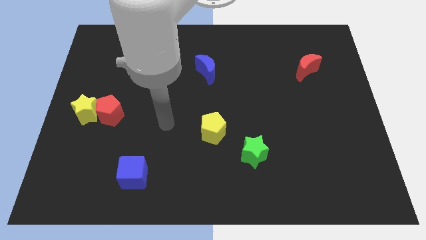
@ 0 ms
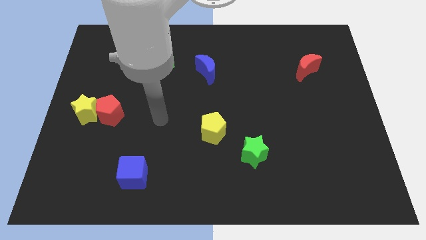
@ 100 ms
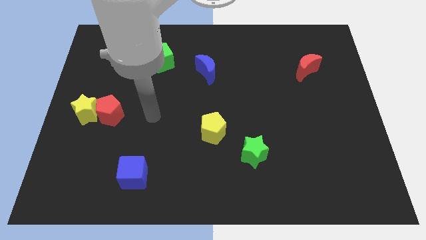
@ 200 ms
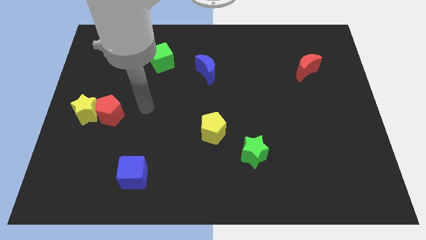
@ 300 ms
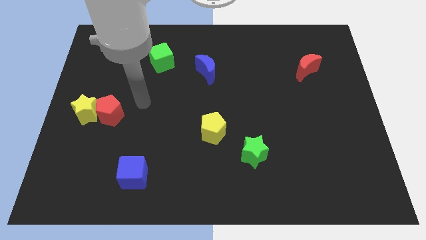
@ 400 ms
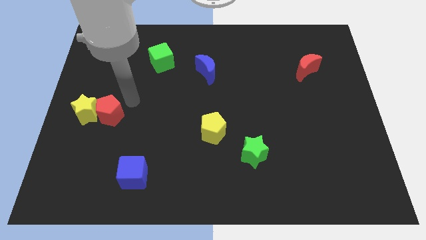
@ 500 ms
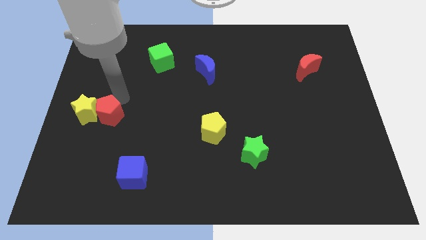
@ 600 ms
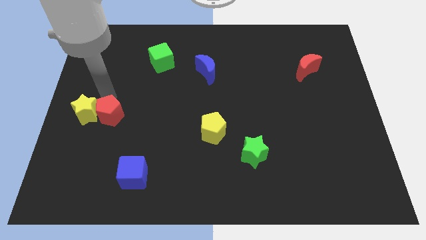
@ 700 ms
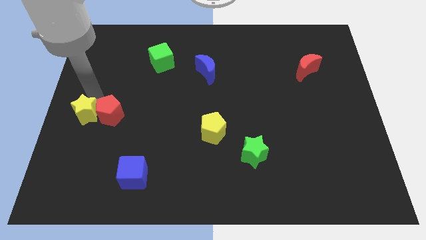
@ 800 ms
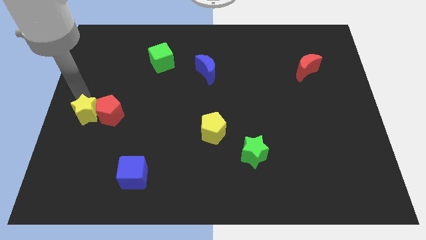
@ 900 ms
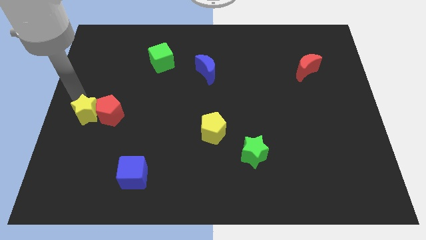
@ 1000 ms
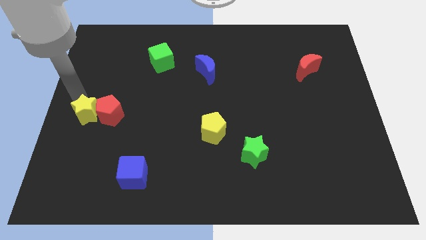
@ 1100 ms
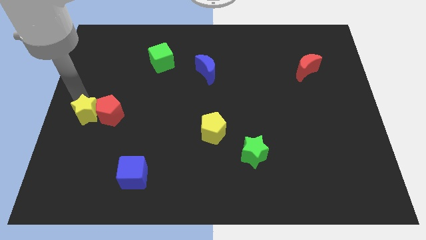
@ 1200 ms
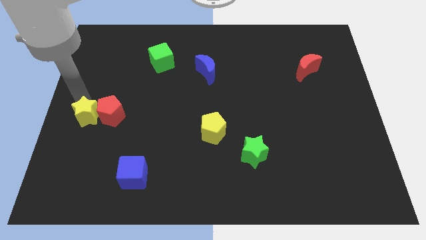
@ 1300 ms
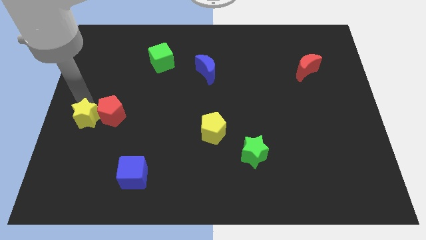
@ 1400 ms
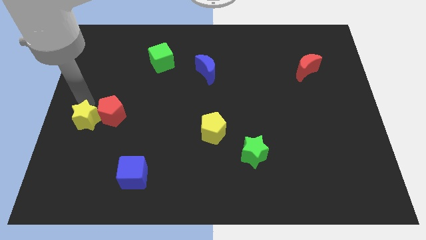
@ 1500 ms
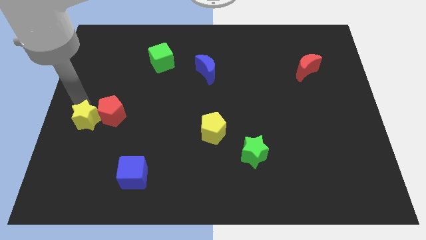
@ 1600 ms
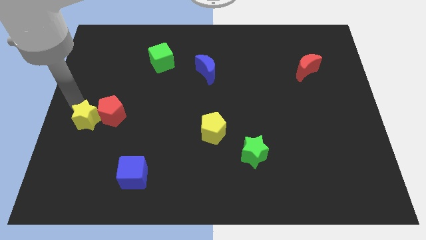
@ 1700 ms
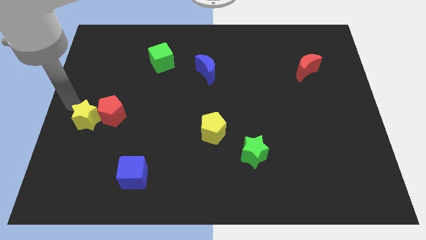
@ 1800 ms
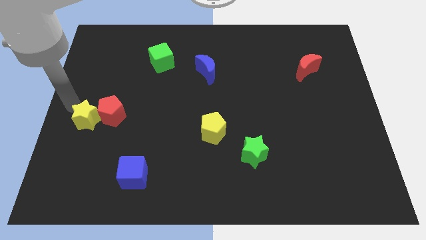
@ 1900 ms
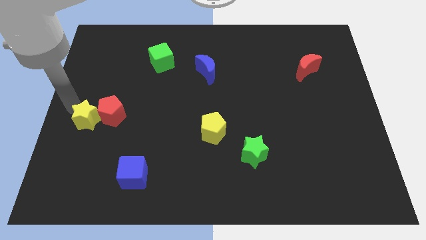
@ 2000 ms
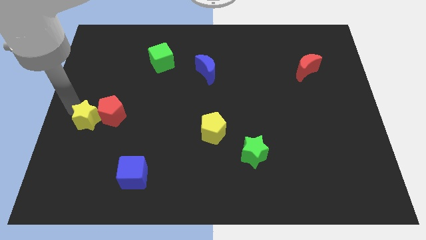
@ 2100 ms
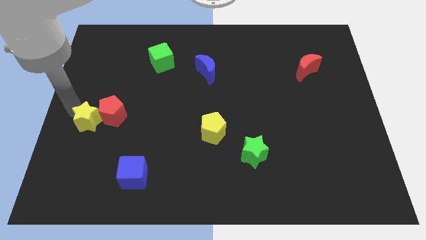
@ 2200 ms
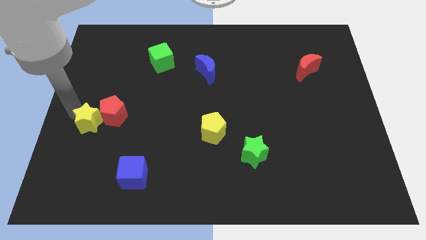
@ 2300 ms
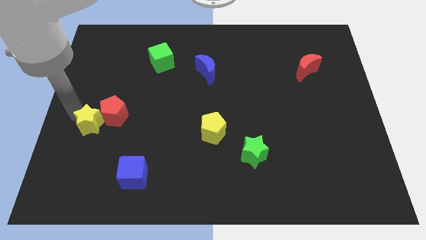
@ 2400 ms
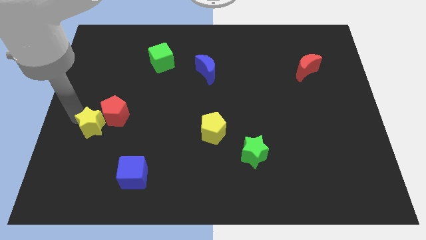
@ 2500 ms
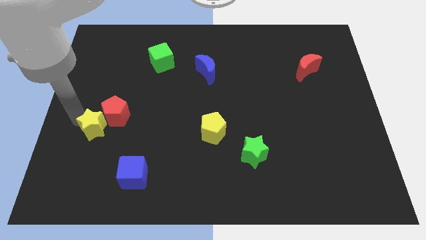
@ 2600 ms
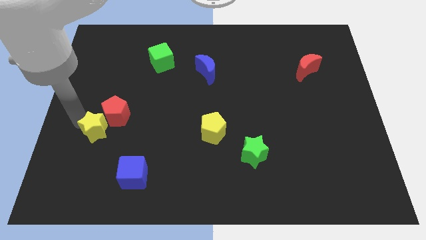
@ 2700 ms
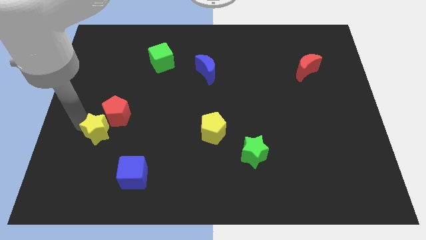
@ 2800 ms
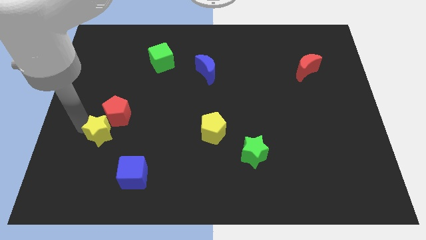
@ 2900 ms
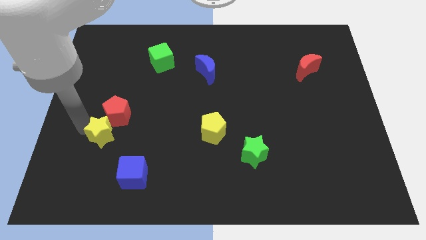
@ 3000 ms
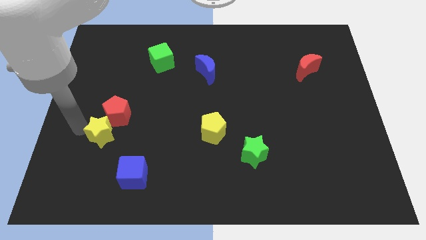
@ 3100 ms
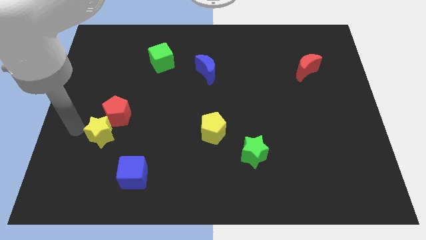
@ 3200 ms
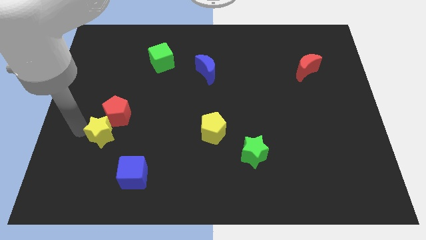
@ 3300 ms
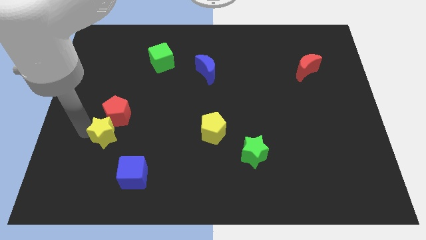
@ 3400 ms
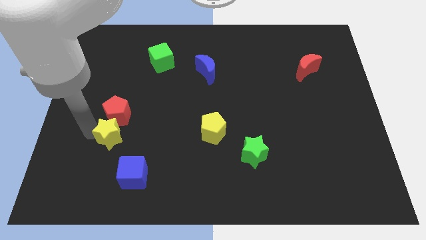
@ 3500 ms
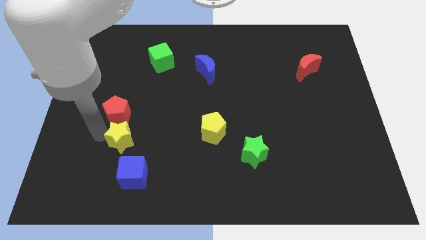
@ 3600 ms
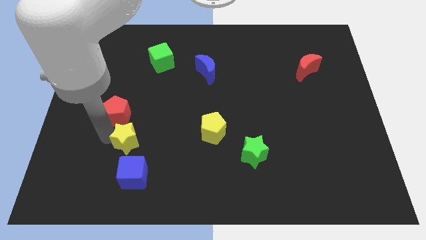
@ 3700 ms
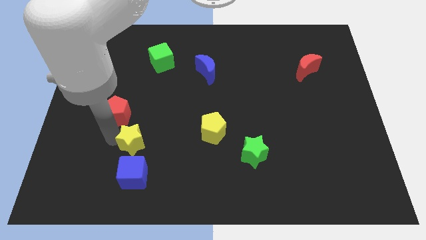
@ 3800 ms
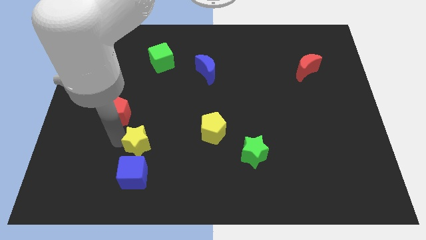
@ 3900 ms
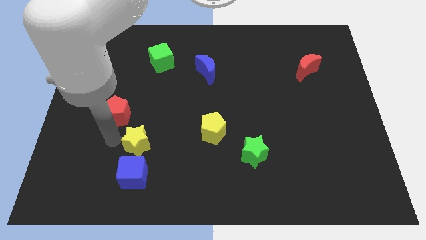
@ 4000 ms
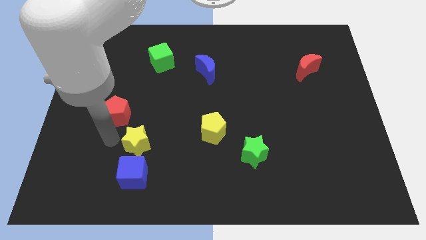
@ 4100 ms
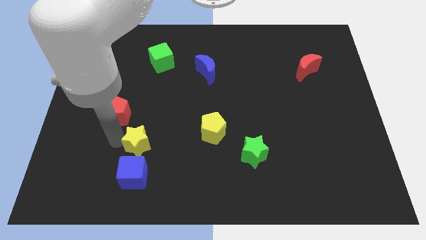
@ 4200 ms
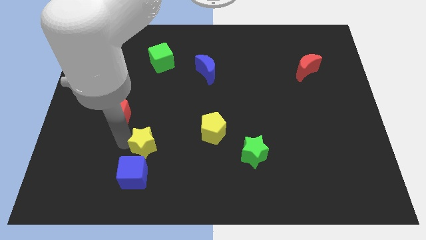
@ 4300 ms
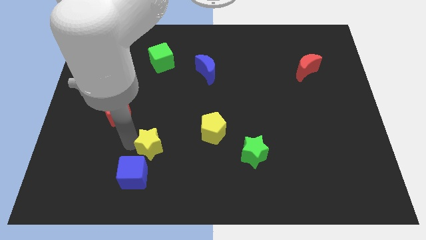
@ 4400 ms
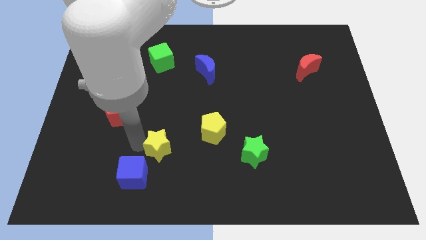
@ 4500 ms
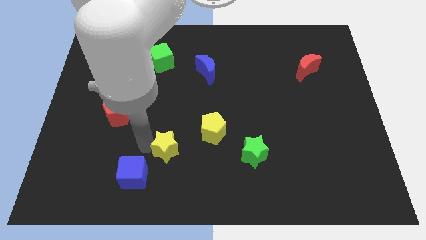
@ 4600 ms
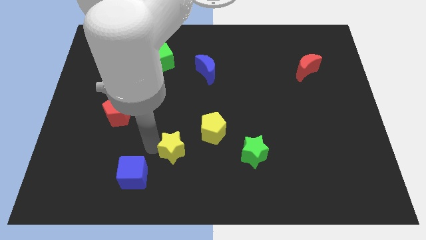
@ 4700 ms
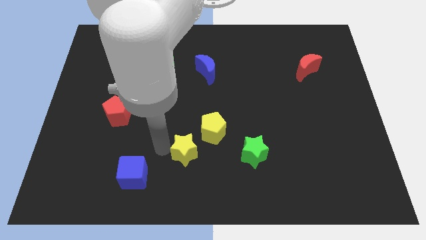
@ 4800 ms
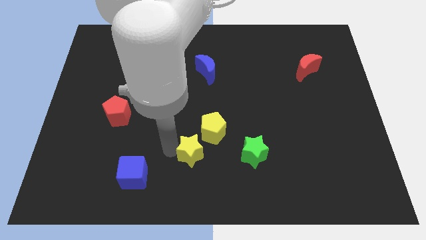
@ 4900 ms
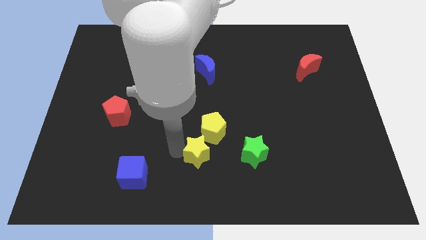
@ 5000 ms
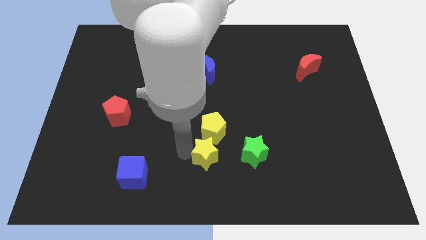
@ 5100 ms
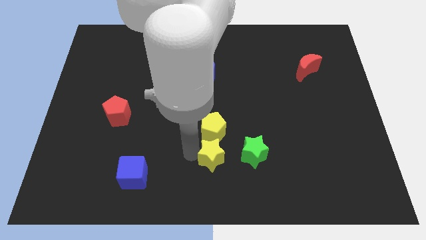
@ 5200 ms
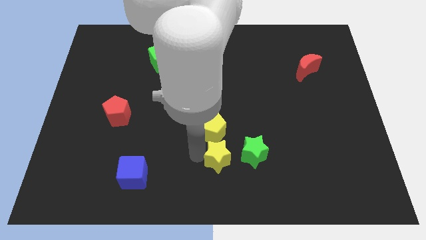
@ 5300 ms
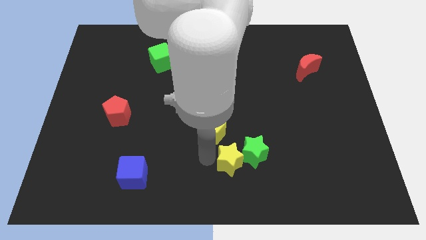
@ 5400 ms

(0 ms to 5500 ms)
slide the yellow star close to the green star

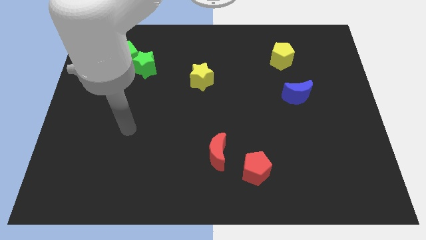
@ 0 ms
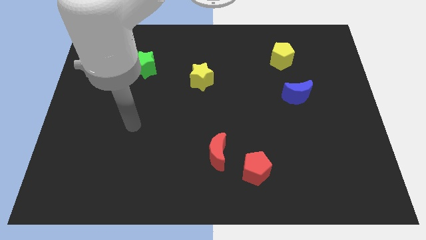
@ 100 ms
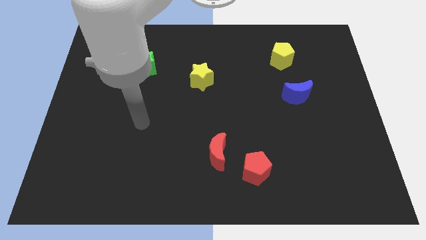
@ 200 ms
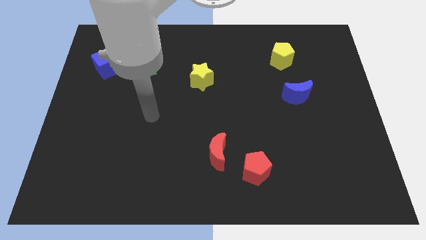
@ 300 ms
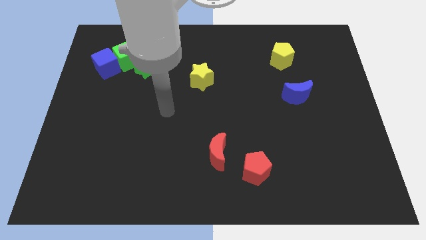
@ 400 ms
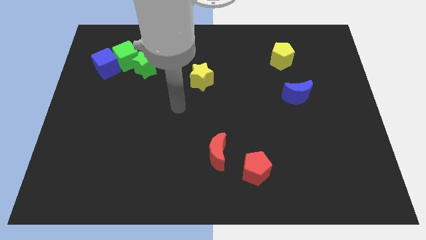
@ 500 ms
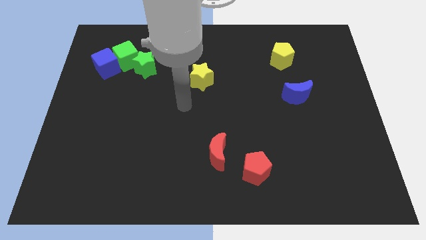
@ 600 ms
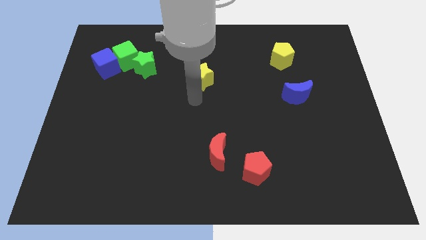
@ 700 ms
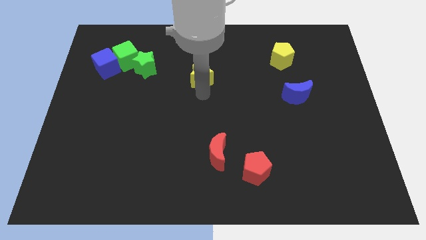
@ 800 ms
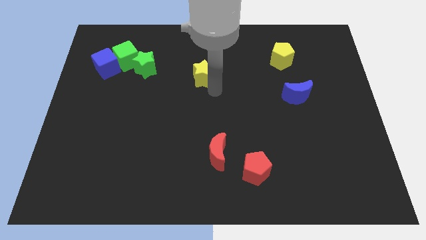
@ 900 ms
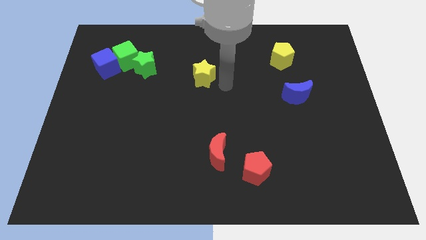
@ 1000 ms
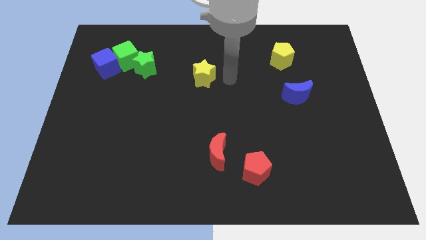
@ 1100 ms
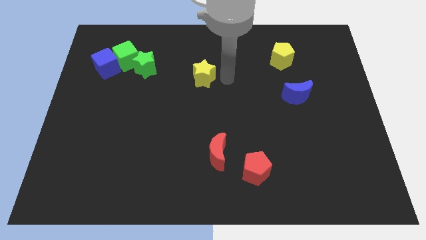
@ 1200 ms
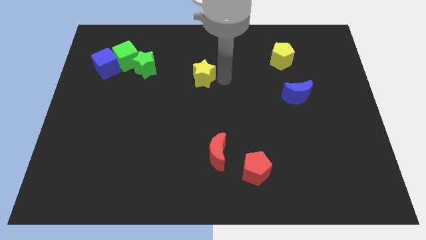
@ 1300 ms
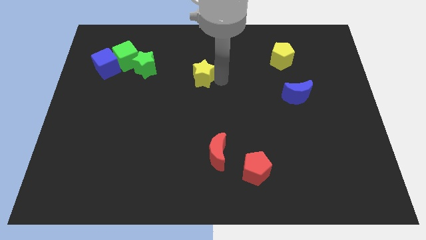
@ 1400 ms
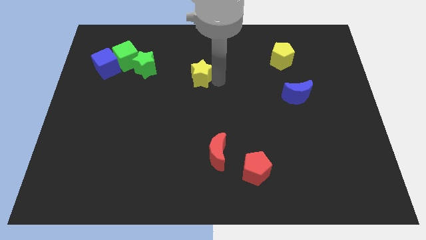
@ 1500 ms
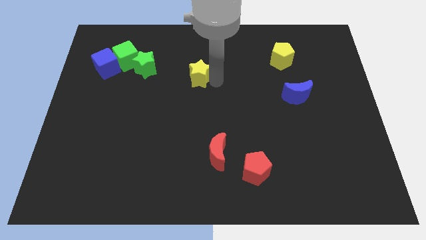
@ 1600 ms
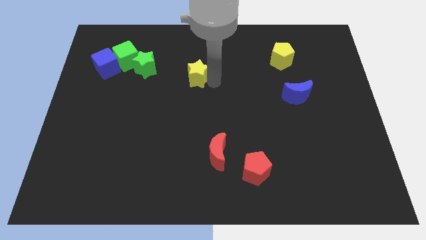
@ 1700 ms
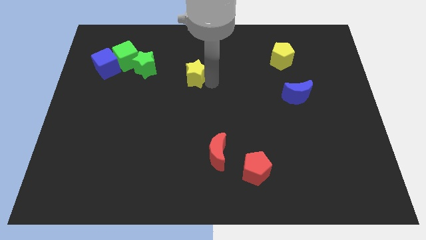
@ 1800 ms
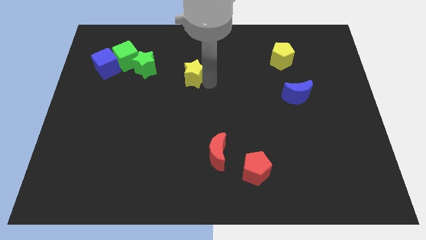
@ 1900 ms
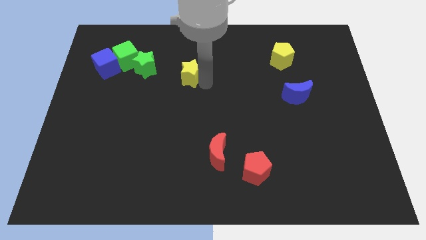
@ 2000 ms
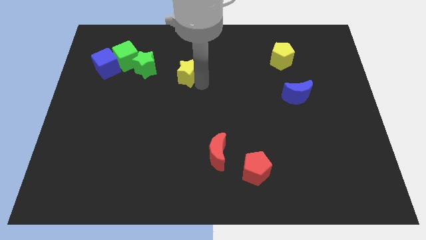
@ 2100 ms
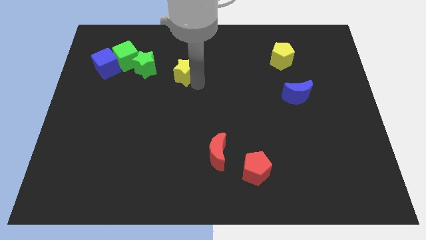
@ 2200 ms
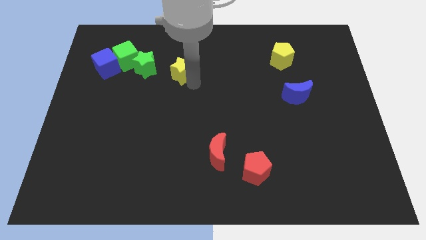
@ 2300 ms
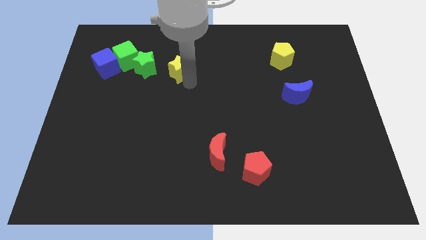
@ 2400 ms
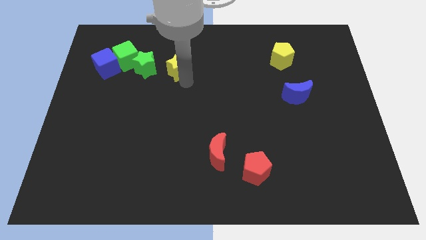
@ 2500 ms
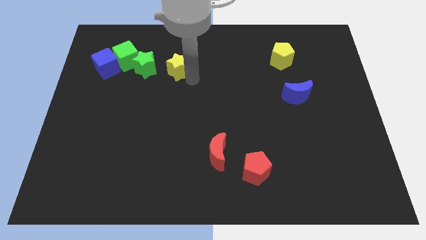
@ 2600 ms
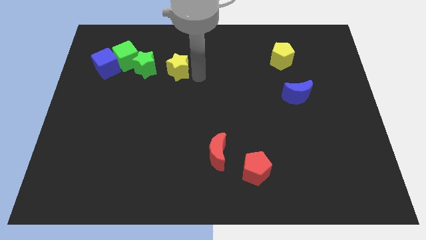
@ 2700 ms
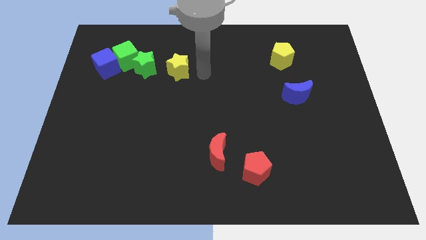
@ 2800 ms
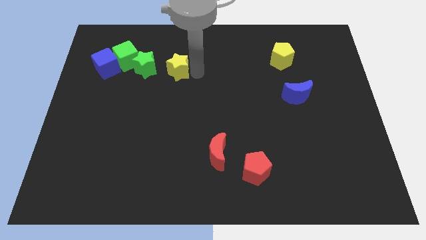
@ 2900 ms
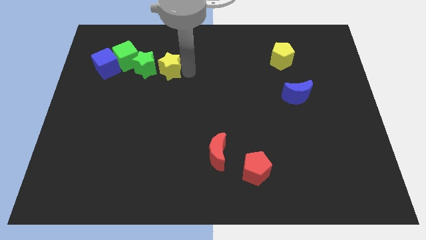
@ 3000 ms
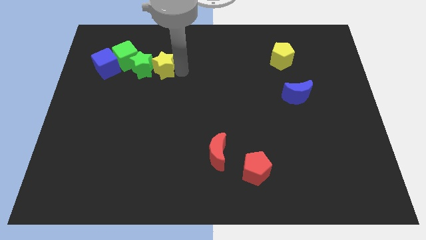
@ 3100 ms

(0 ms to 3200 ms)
slide the yellow star next to the green star
